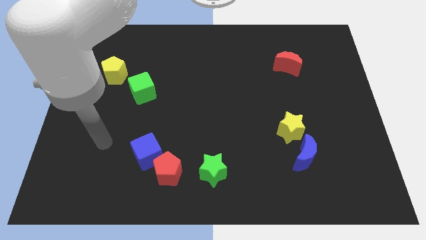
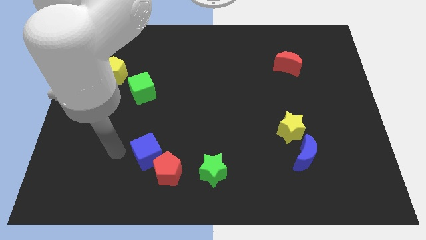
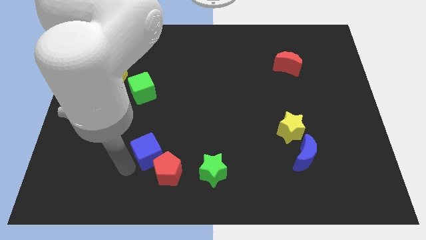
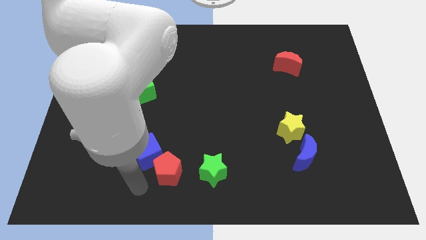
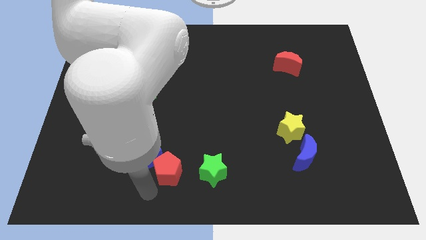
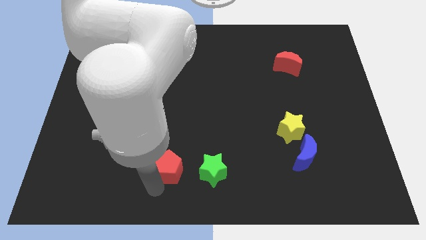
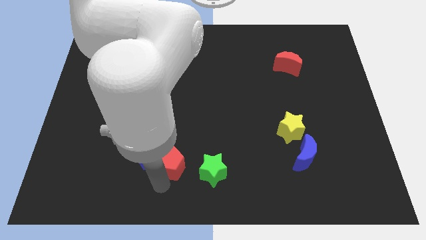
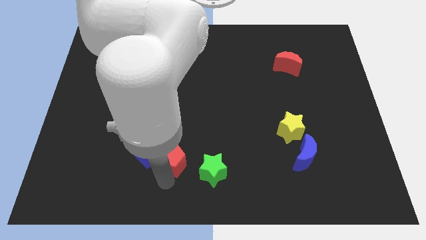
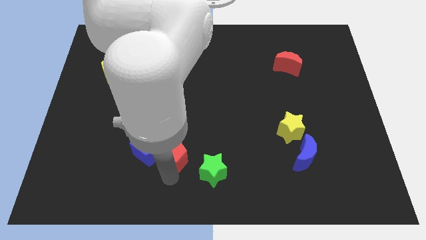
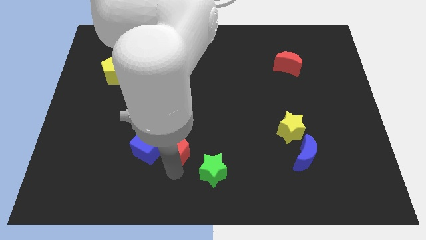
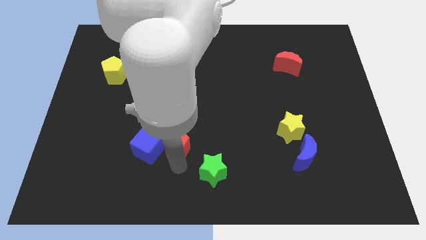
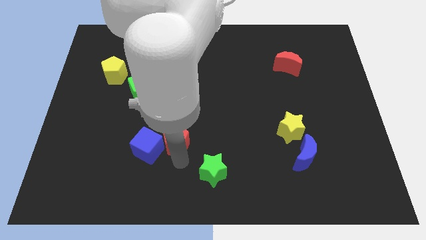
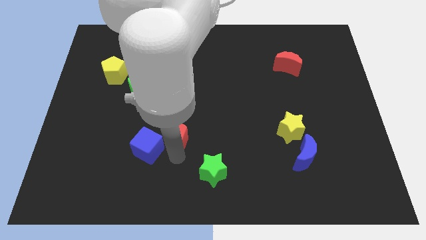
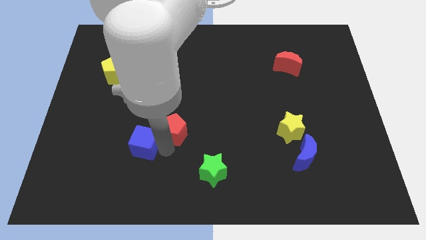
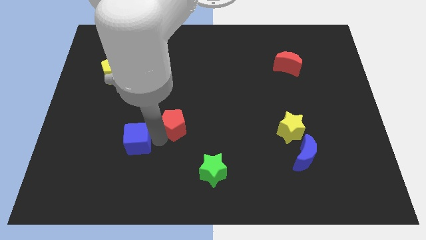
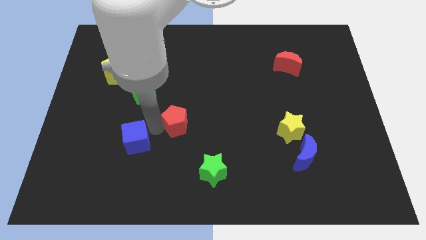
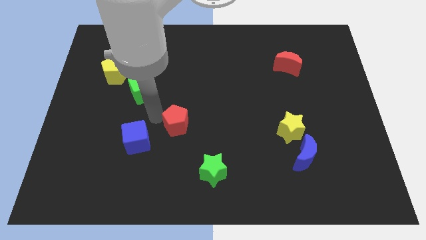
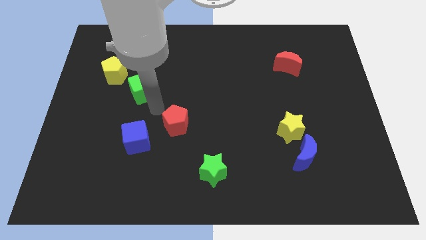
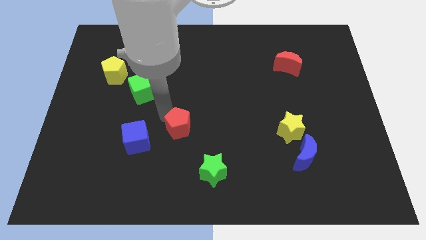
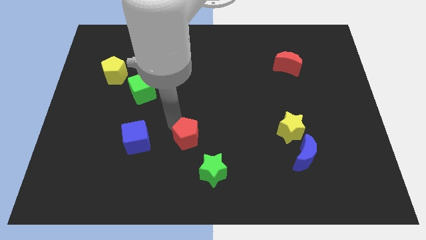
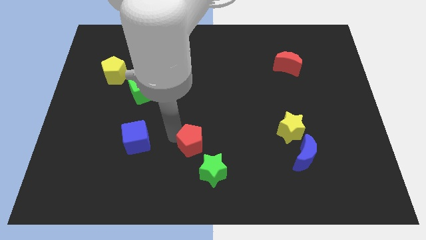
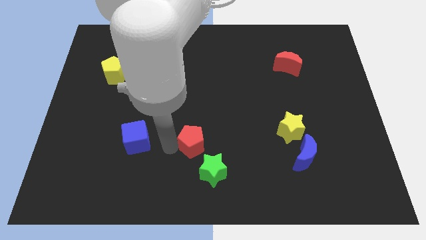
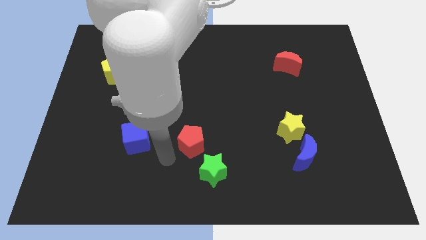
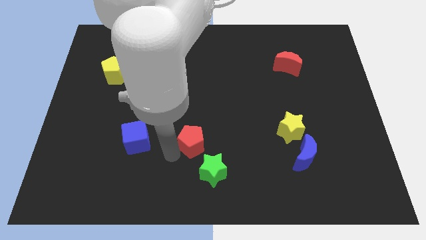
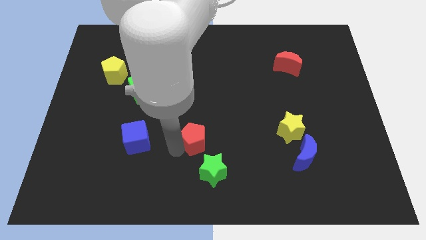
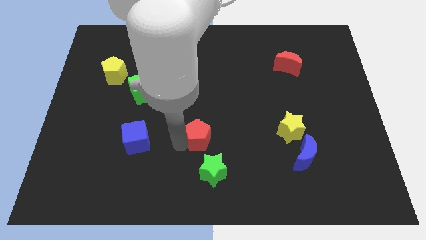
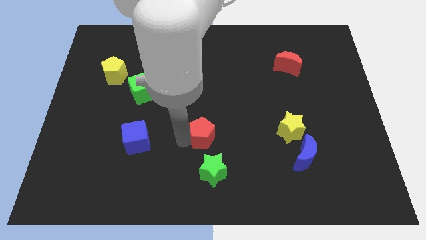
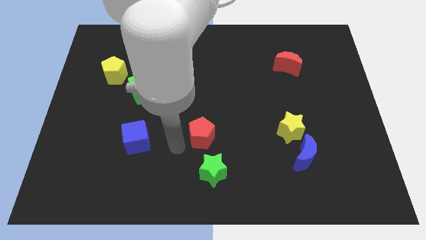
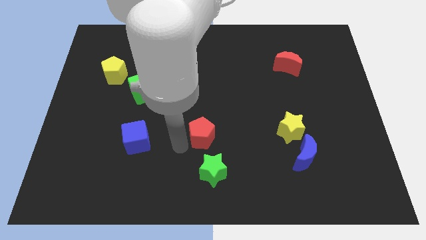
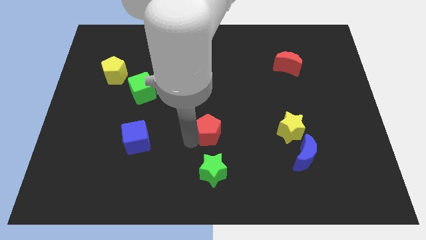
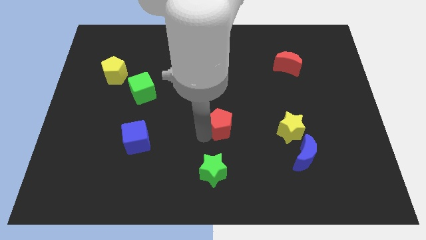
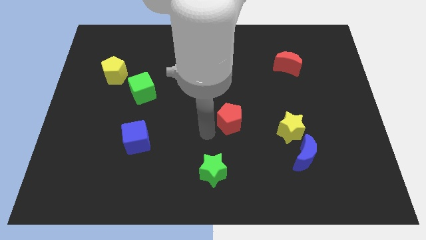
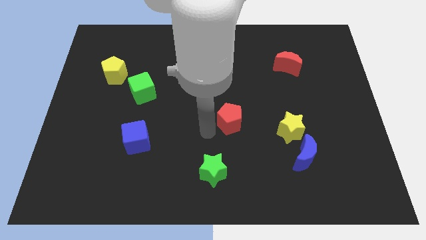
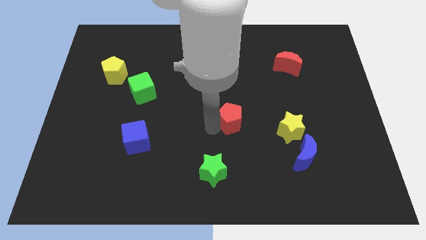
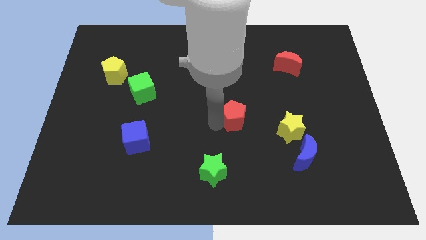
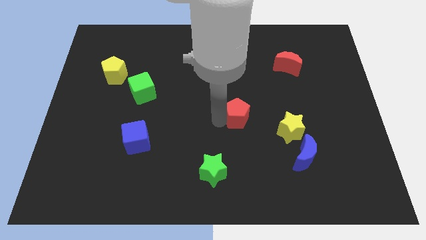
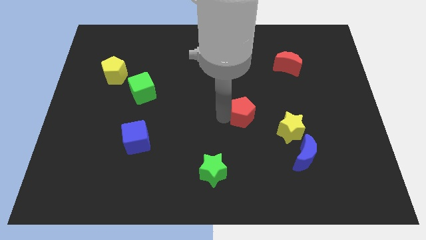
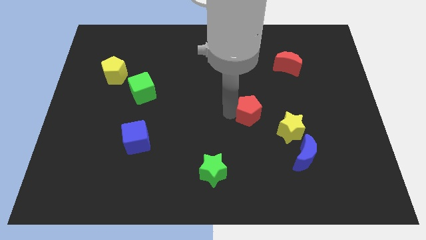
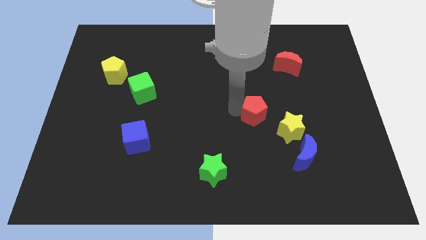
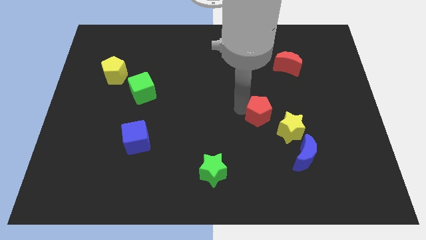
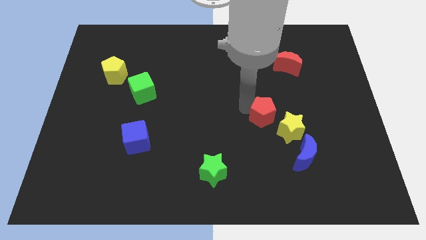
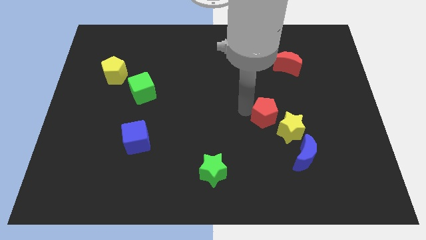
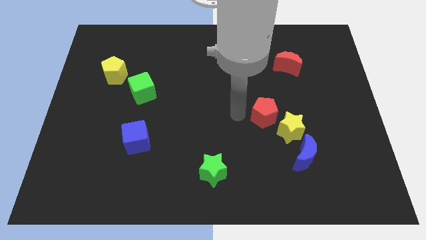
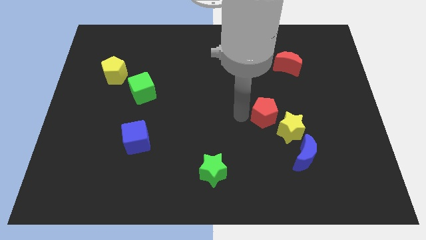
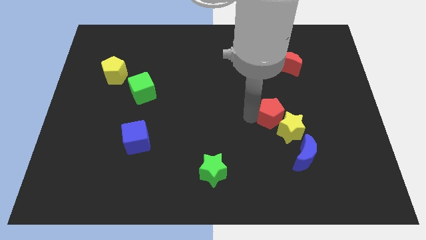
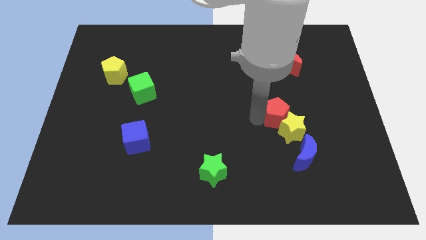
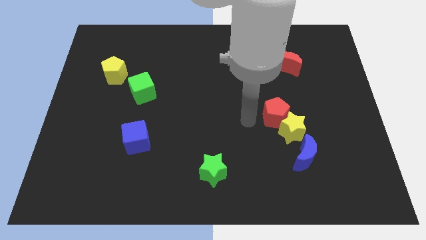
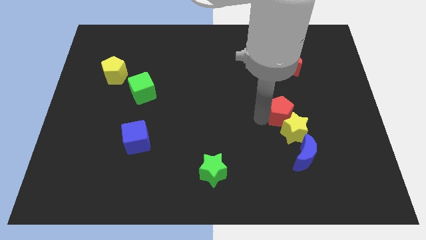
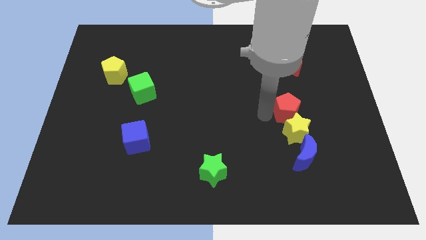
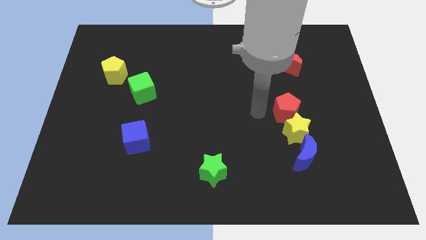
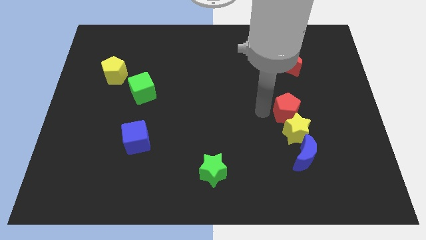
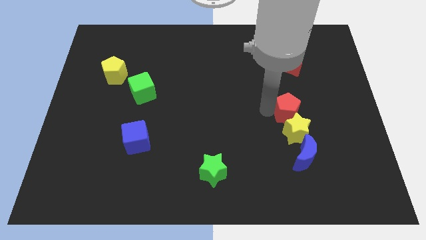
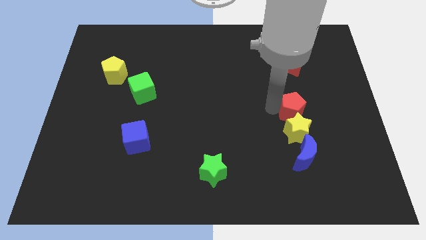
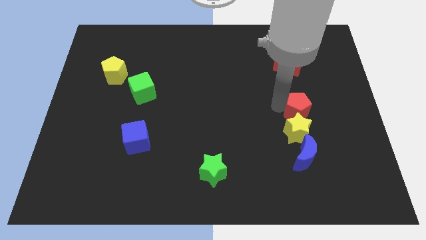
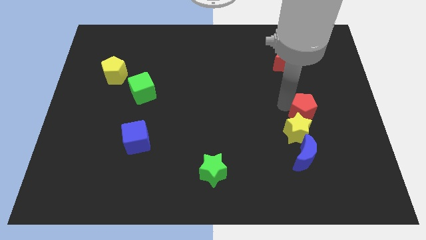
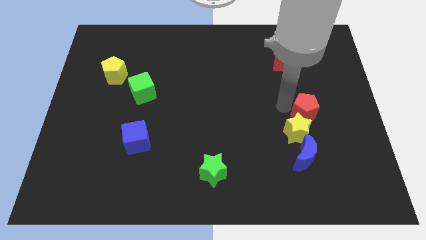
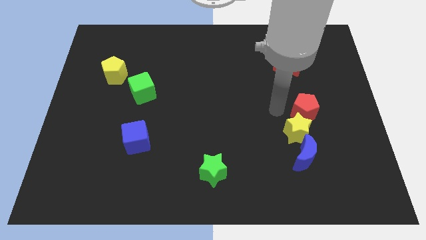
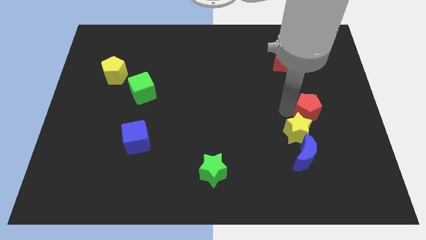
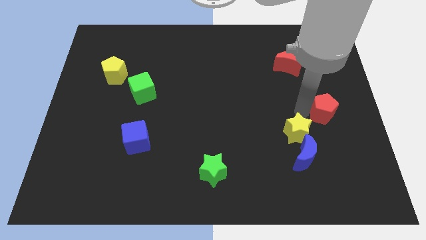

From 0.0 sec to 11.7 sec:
move the red pentagon to the right side
